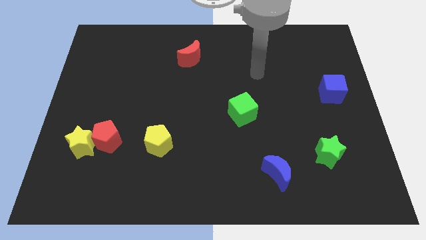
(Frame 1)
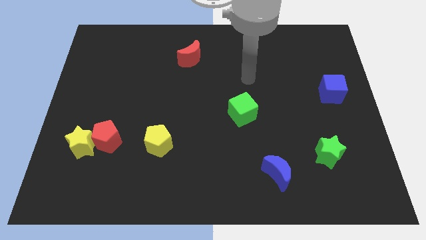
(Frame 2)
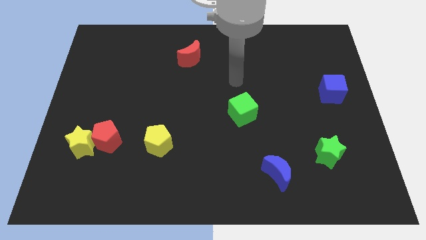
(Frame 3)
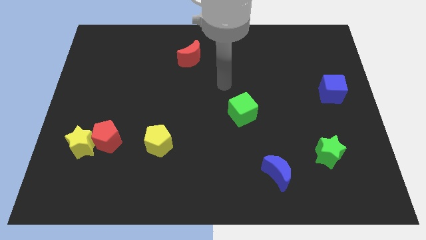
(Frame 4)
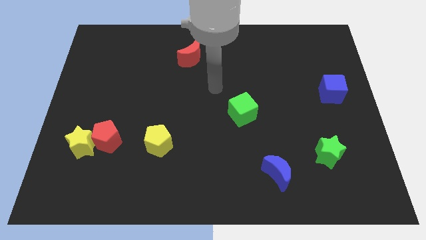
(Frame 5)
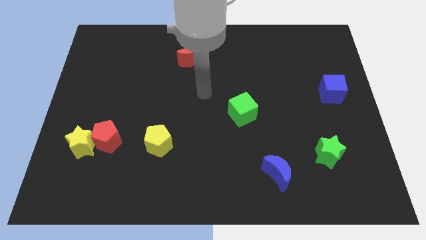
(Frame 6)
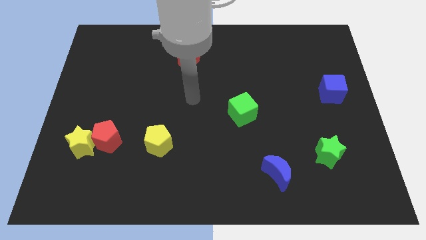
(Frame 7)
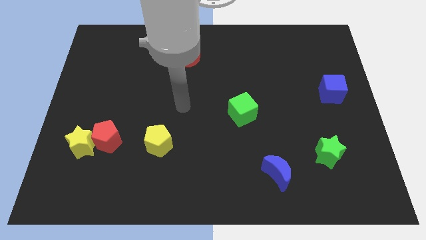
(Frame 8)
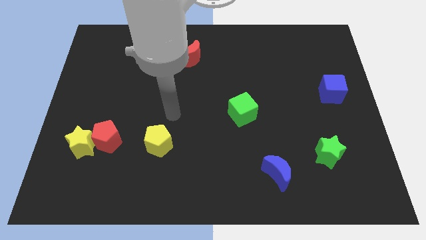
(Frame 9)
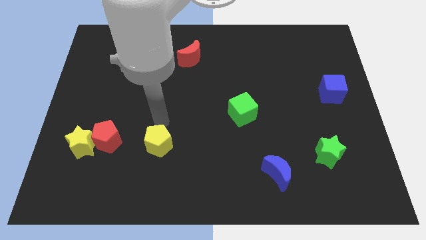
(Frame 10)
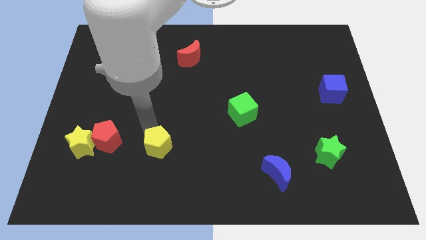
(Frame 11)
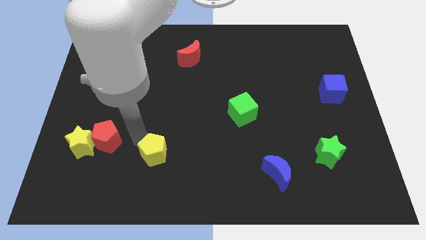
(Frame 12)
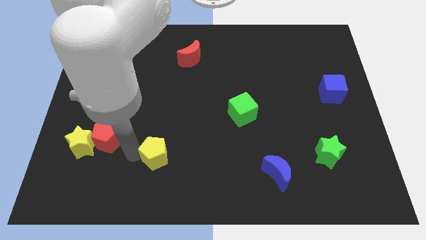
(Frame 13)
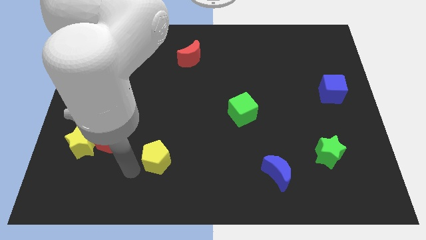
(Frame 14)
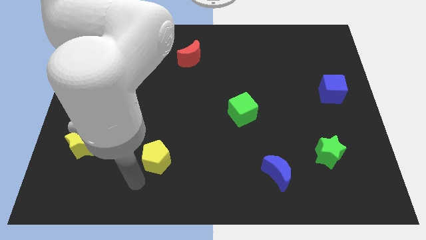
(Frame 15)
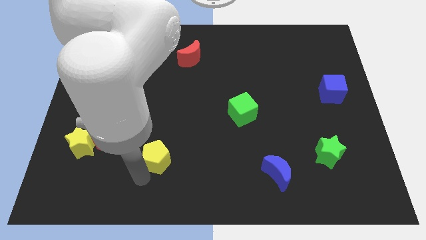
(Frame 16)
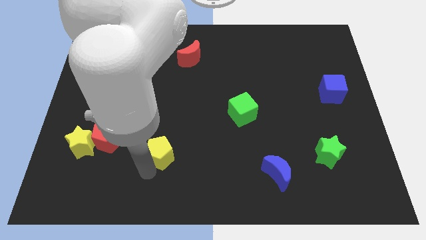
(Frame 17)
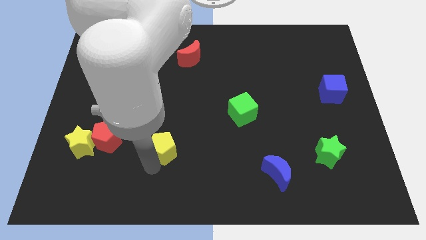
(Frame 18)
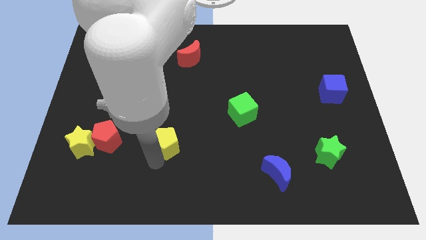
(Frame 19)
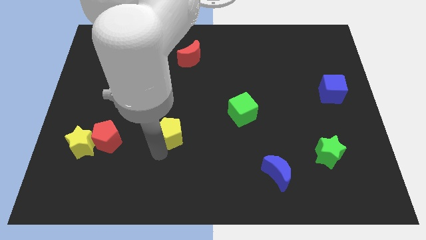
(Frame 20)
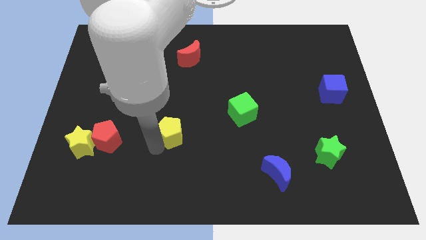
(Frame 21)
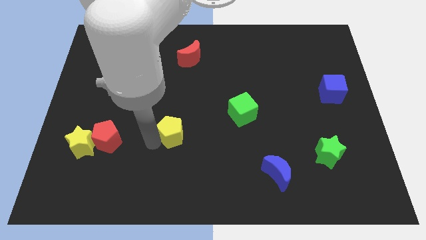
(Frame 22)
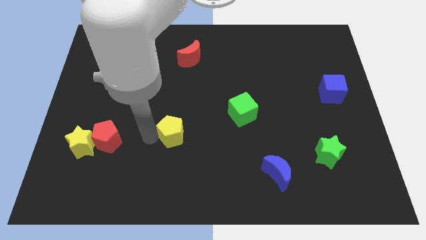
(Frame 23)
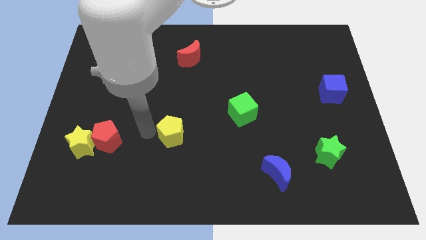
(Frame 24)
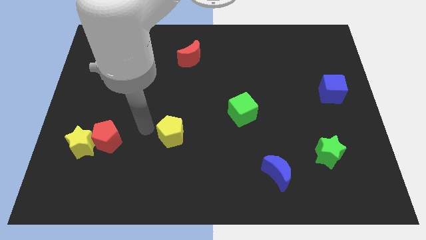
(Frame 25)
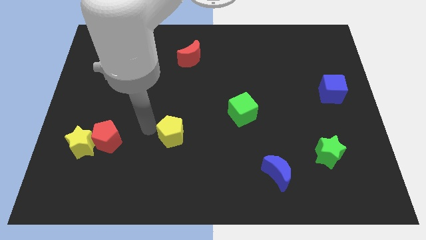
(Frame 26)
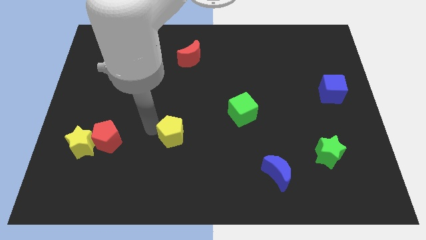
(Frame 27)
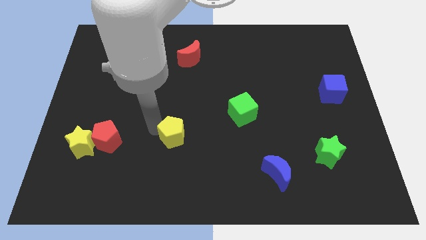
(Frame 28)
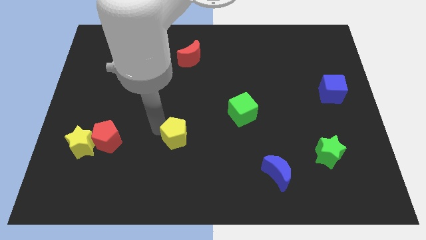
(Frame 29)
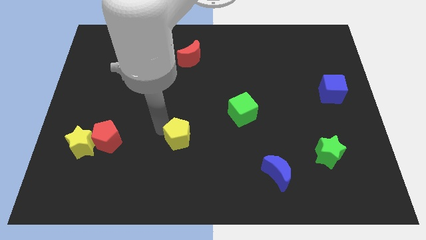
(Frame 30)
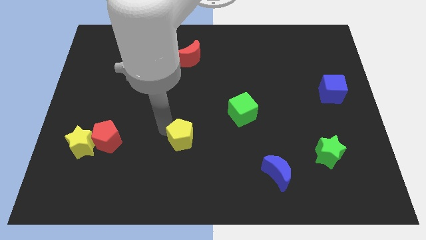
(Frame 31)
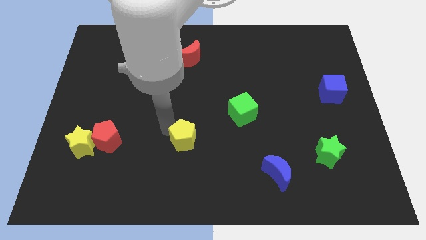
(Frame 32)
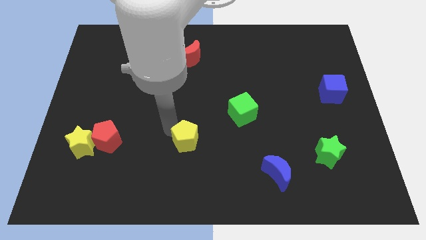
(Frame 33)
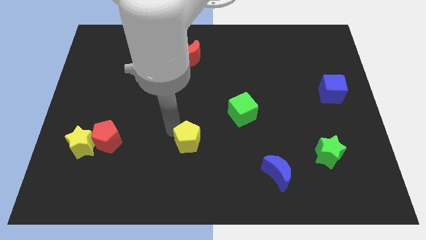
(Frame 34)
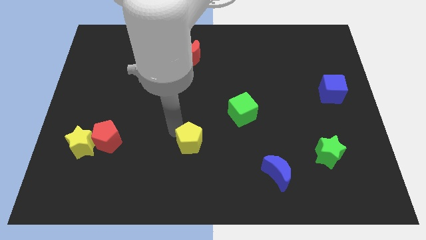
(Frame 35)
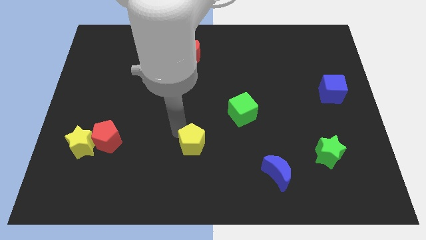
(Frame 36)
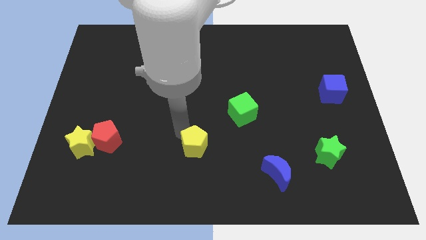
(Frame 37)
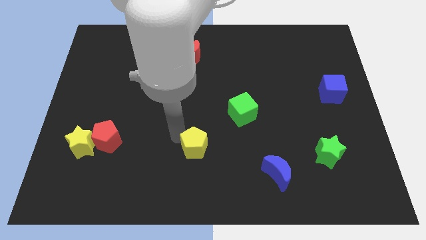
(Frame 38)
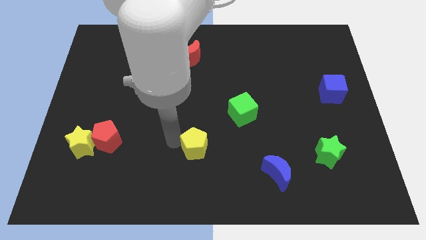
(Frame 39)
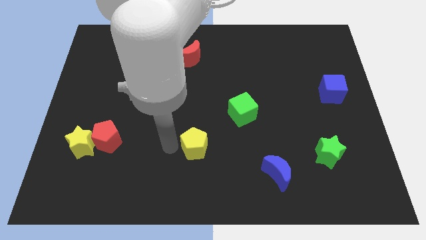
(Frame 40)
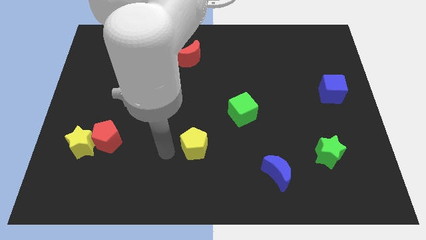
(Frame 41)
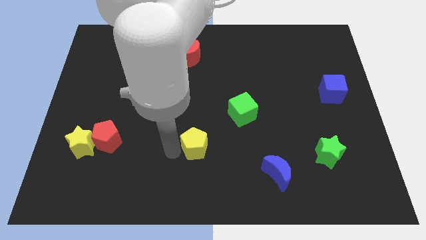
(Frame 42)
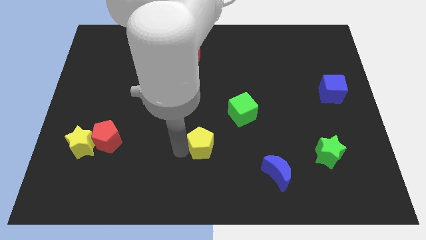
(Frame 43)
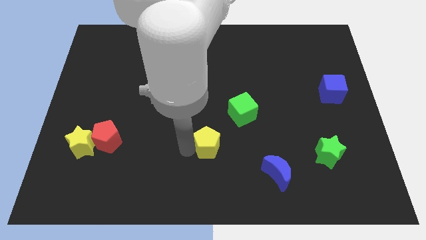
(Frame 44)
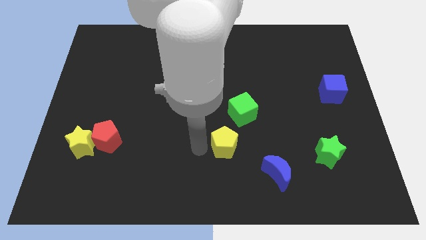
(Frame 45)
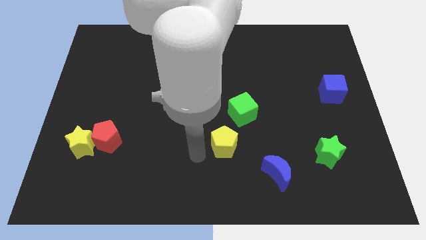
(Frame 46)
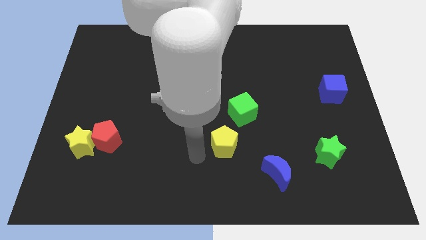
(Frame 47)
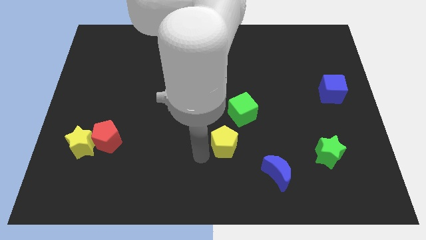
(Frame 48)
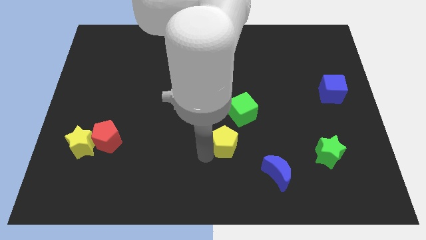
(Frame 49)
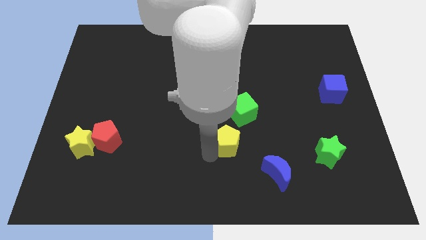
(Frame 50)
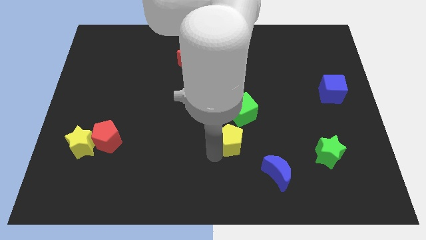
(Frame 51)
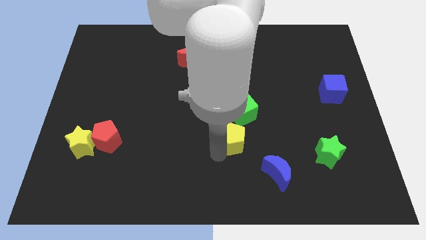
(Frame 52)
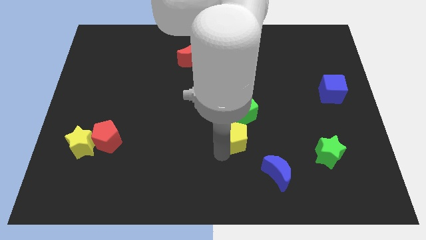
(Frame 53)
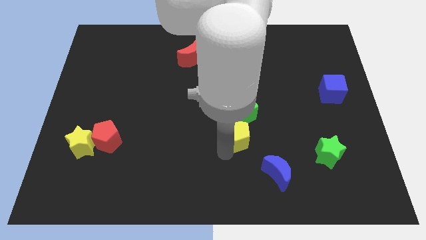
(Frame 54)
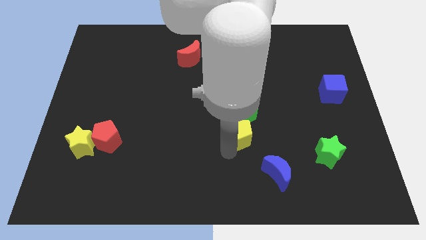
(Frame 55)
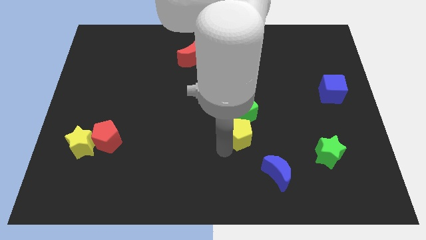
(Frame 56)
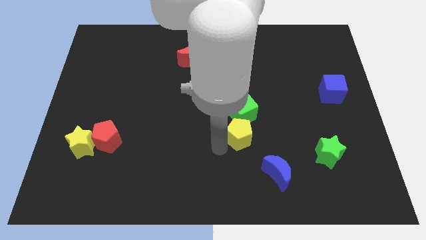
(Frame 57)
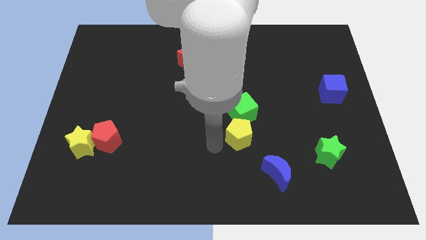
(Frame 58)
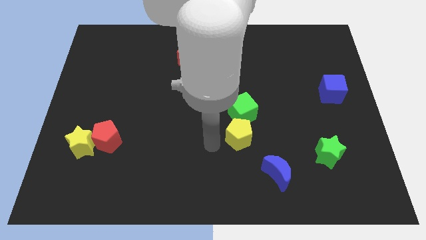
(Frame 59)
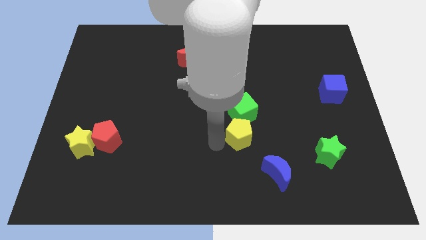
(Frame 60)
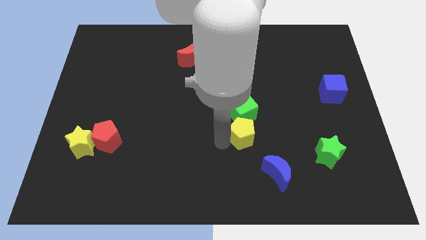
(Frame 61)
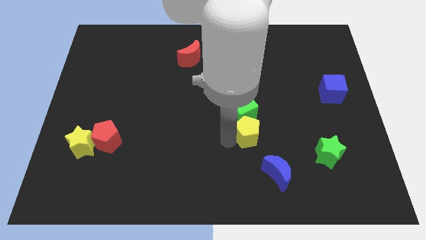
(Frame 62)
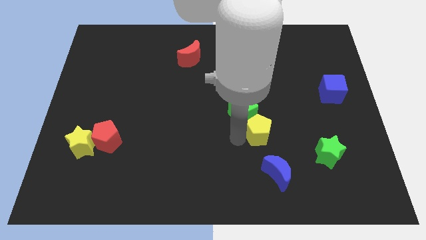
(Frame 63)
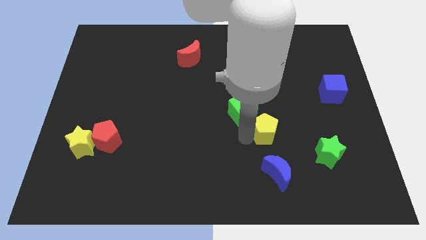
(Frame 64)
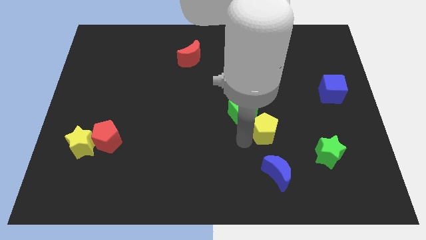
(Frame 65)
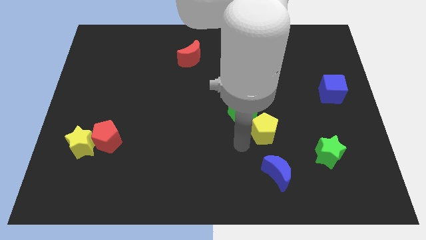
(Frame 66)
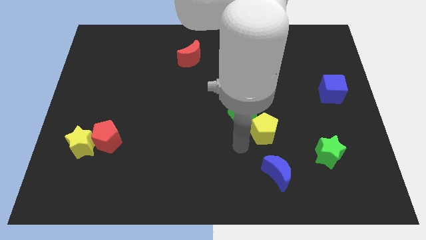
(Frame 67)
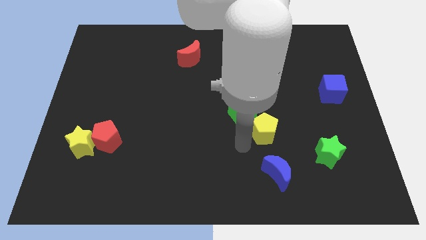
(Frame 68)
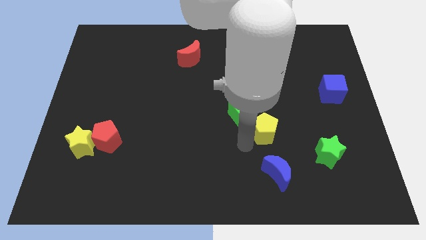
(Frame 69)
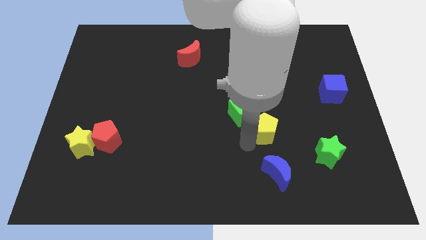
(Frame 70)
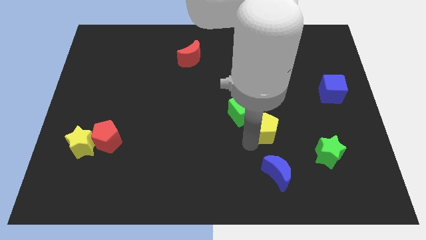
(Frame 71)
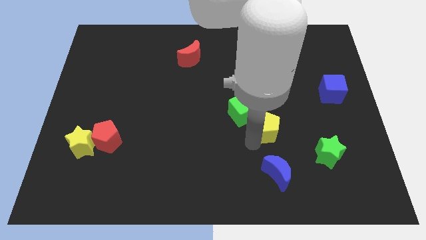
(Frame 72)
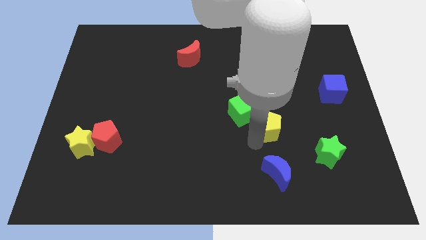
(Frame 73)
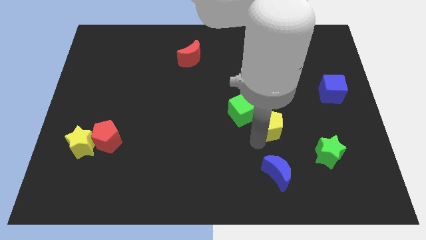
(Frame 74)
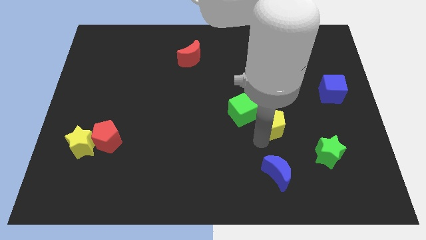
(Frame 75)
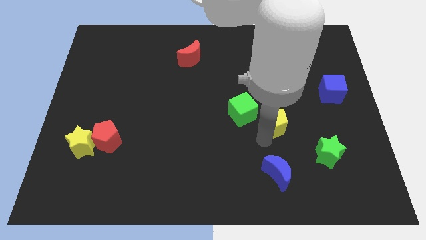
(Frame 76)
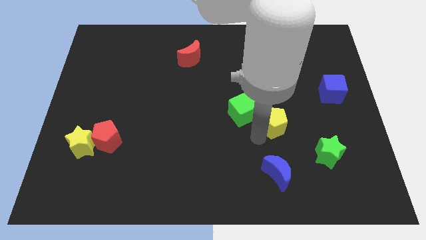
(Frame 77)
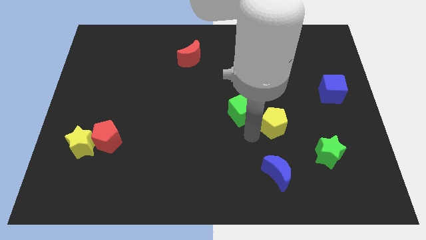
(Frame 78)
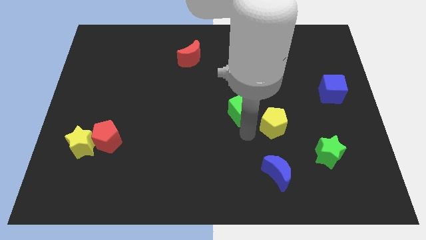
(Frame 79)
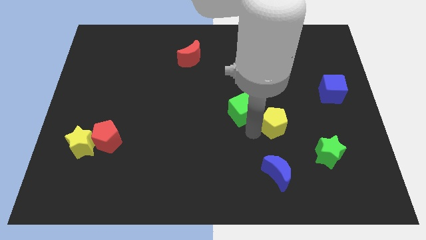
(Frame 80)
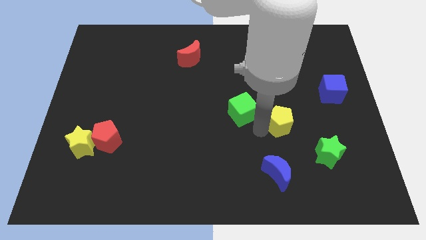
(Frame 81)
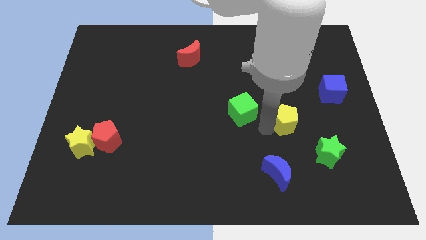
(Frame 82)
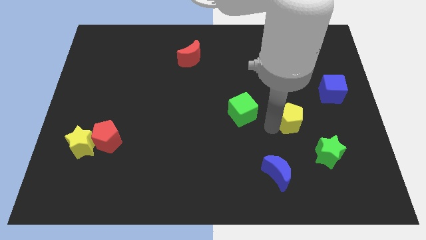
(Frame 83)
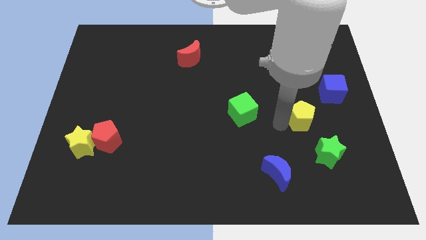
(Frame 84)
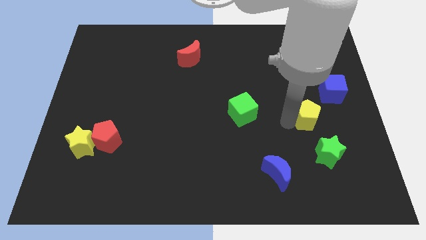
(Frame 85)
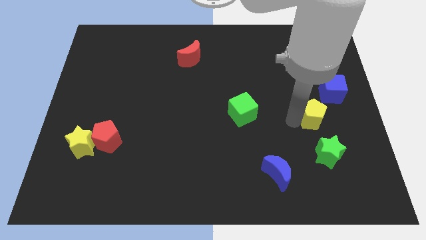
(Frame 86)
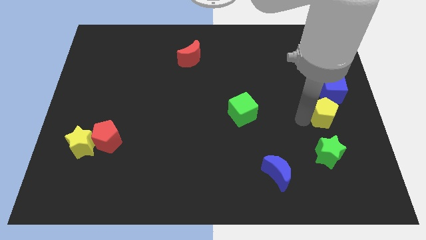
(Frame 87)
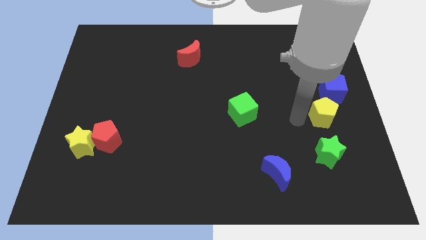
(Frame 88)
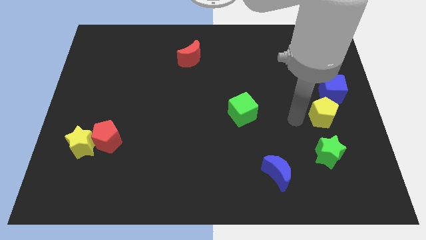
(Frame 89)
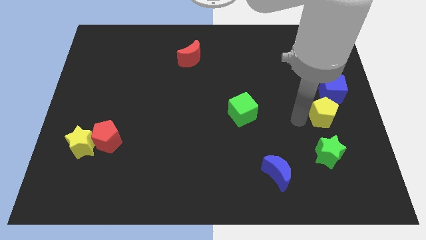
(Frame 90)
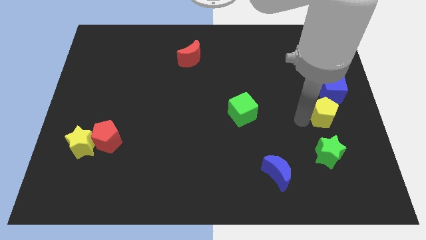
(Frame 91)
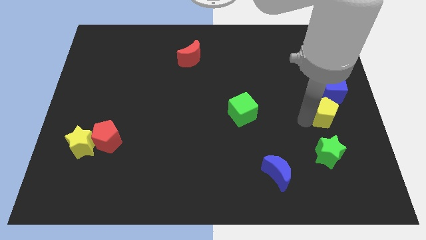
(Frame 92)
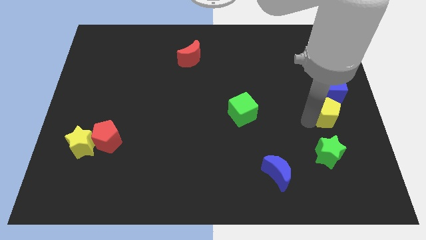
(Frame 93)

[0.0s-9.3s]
move the yellow pentagon to the center right
